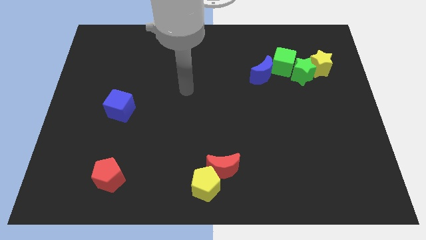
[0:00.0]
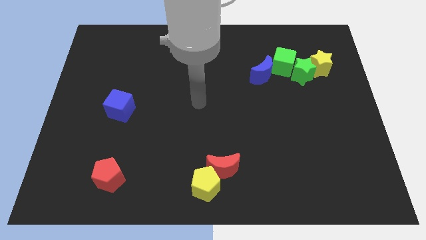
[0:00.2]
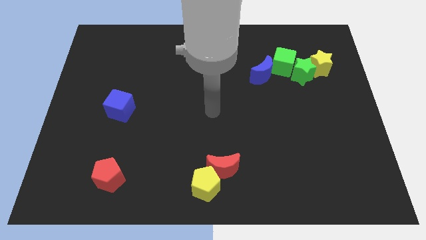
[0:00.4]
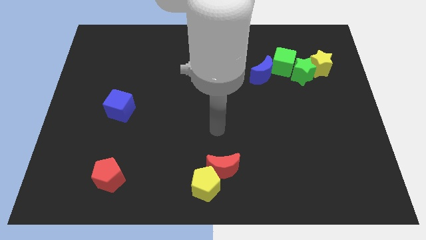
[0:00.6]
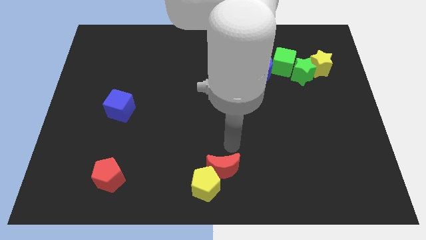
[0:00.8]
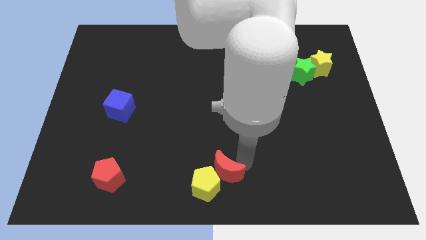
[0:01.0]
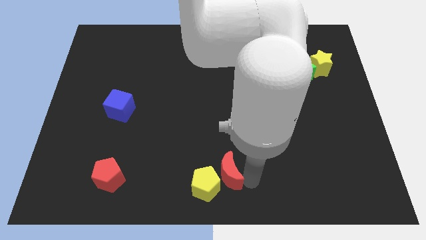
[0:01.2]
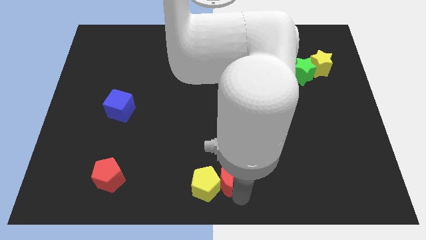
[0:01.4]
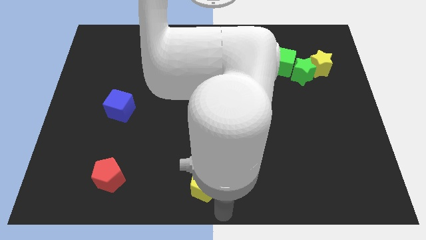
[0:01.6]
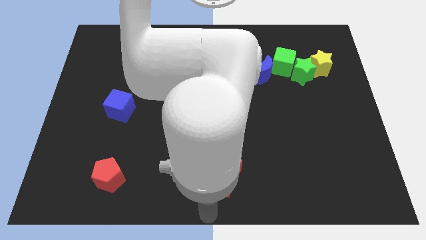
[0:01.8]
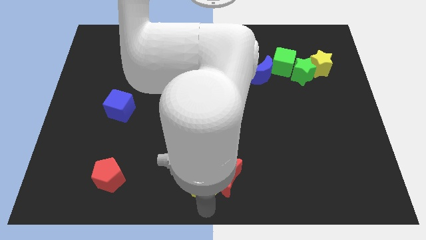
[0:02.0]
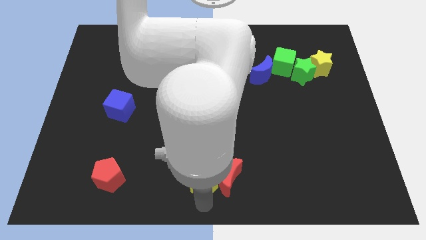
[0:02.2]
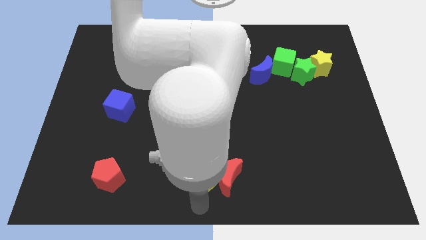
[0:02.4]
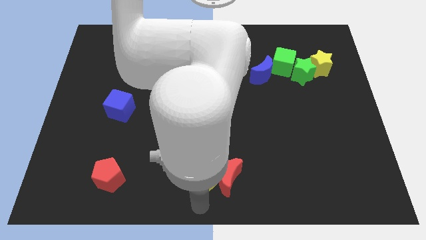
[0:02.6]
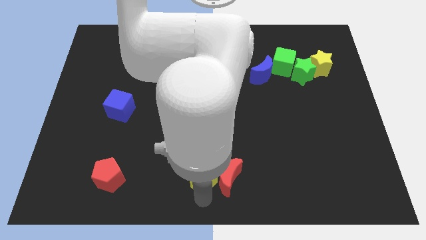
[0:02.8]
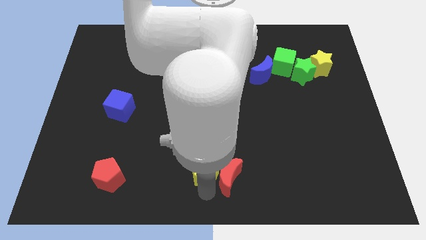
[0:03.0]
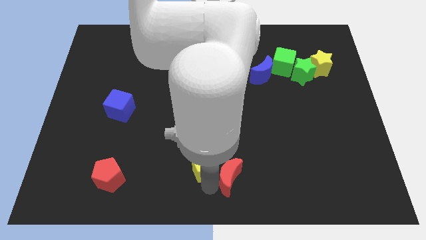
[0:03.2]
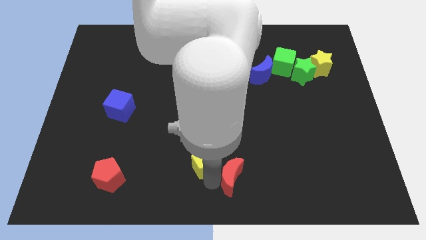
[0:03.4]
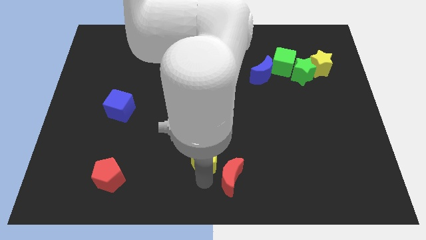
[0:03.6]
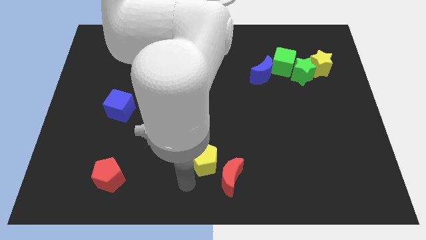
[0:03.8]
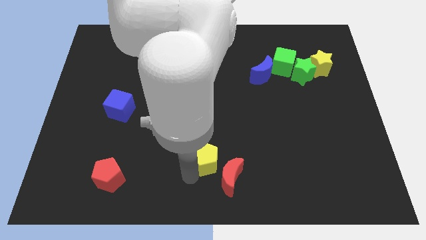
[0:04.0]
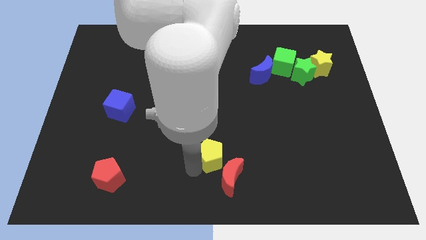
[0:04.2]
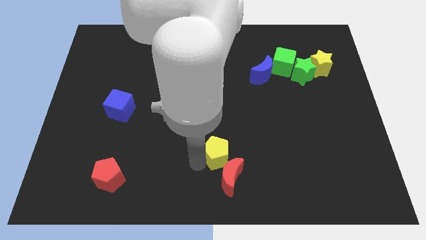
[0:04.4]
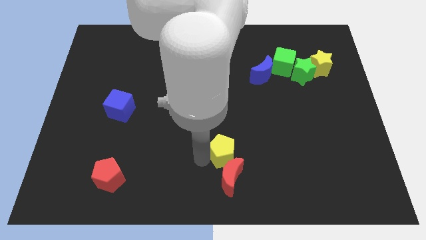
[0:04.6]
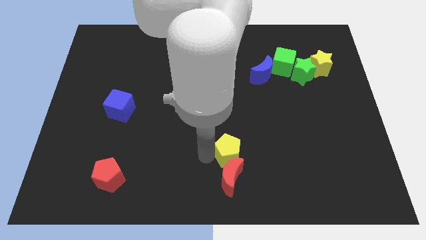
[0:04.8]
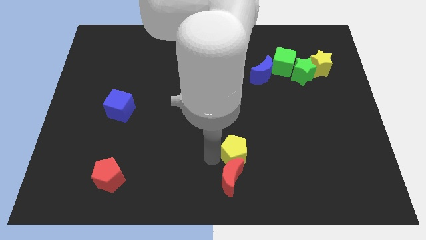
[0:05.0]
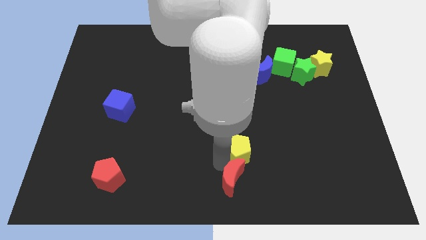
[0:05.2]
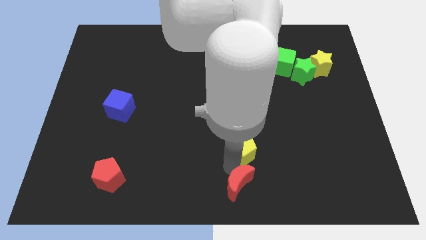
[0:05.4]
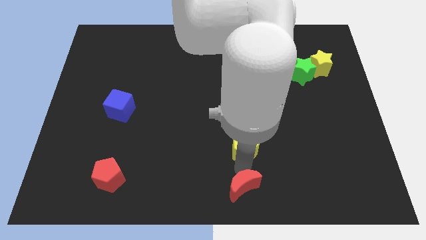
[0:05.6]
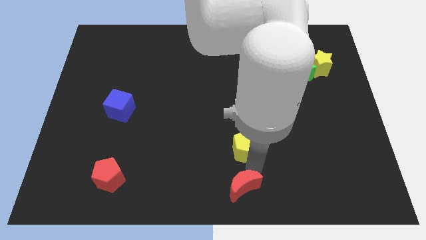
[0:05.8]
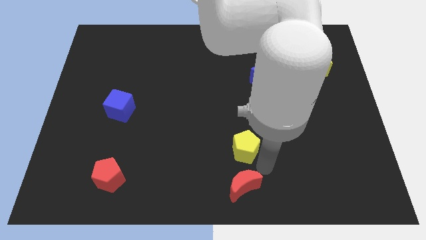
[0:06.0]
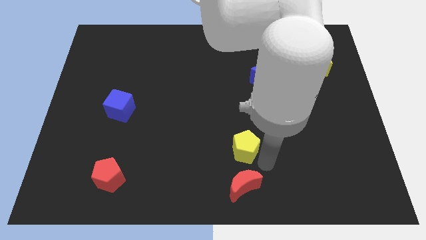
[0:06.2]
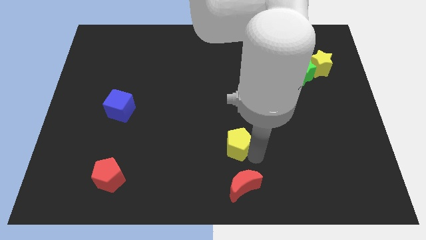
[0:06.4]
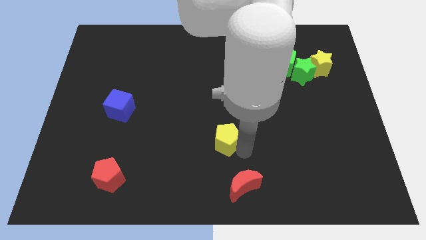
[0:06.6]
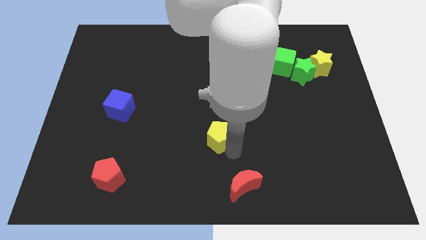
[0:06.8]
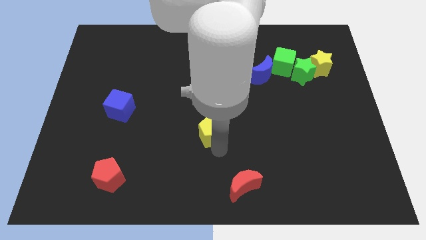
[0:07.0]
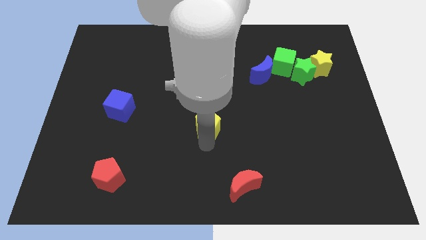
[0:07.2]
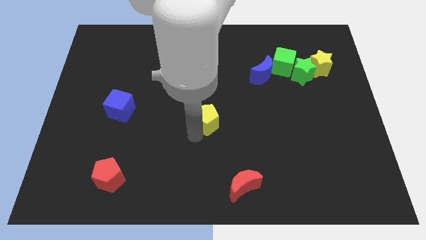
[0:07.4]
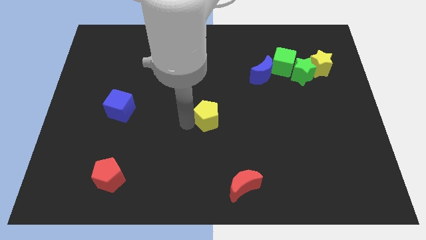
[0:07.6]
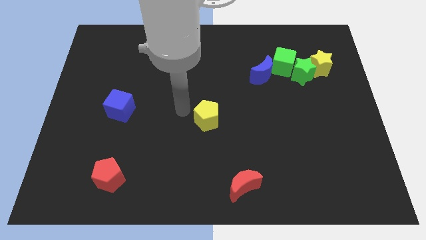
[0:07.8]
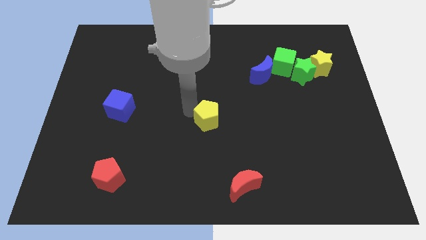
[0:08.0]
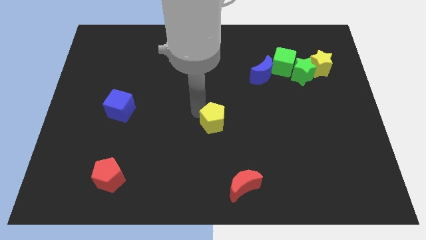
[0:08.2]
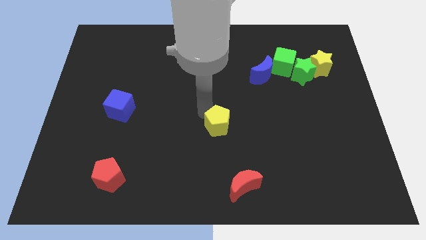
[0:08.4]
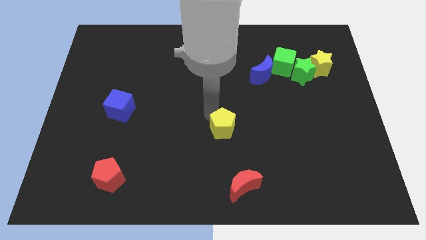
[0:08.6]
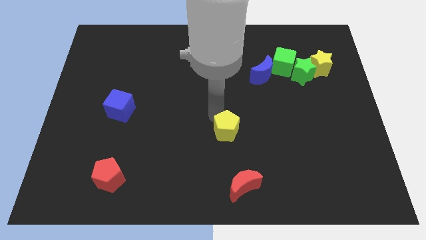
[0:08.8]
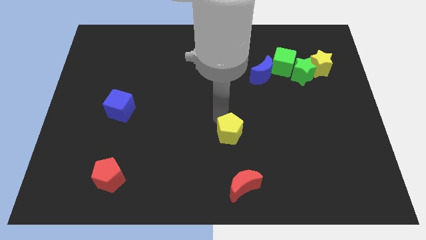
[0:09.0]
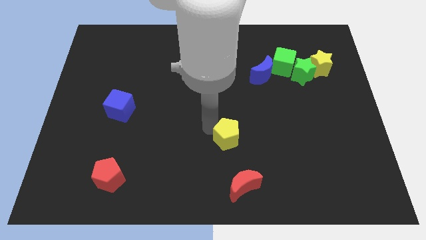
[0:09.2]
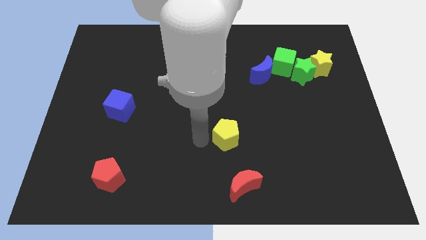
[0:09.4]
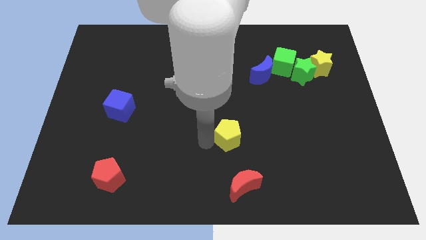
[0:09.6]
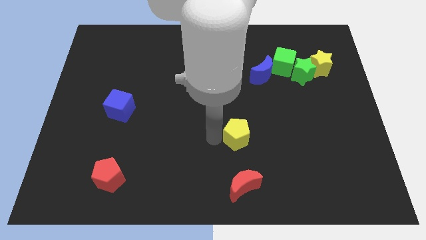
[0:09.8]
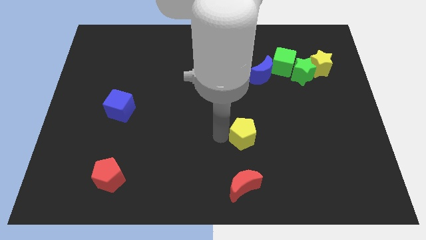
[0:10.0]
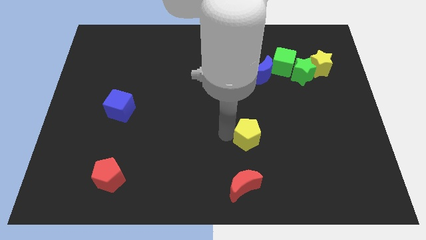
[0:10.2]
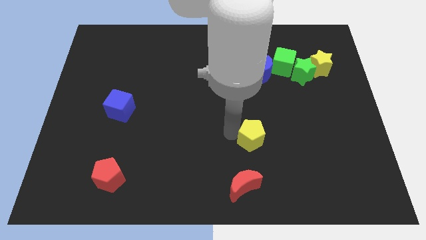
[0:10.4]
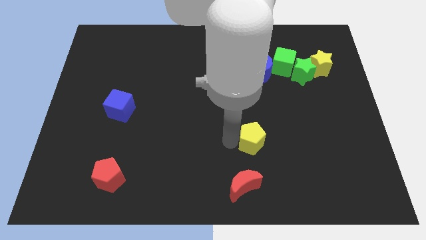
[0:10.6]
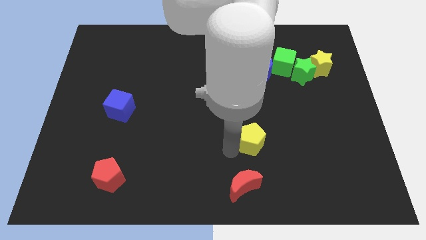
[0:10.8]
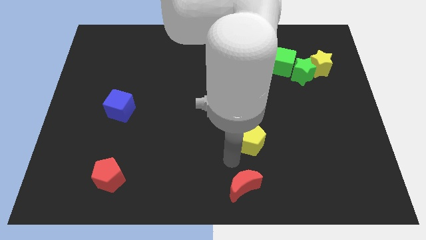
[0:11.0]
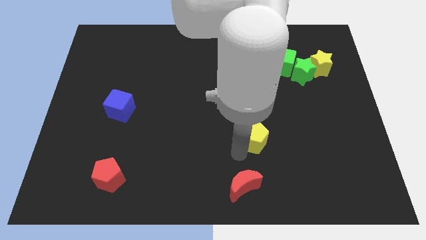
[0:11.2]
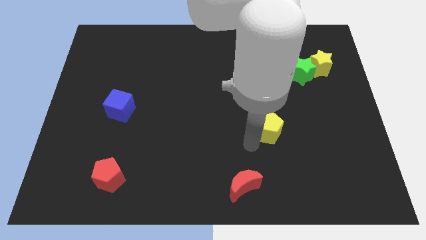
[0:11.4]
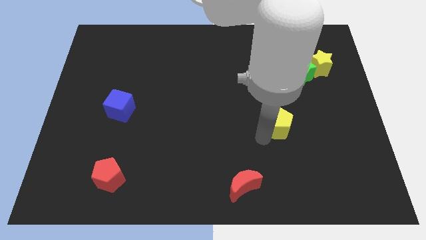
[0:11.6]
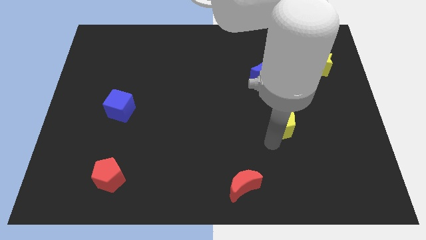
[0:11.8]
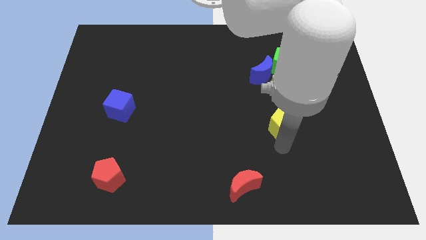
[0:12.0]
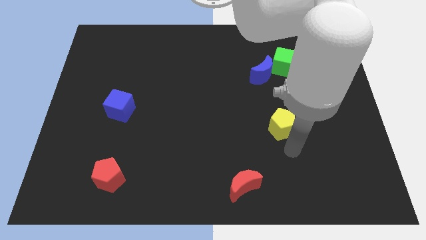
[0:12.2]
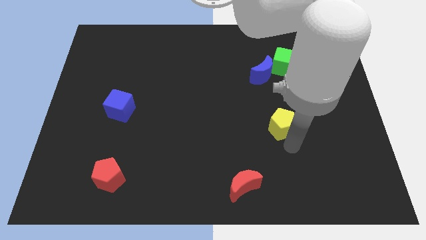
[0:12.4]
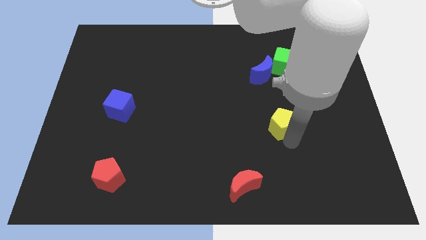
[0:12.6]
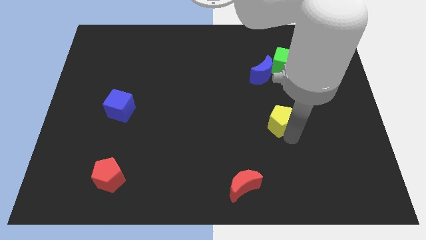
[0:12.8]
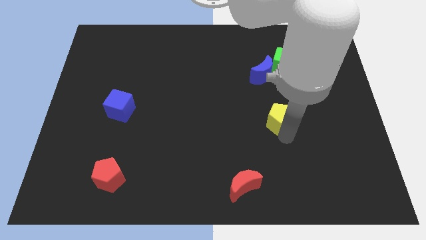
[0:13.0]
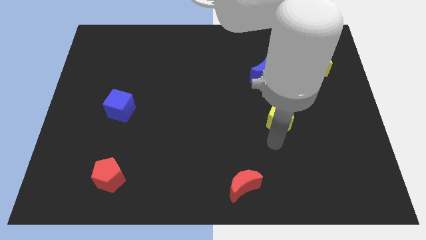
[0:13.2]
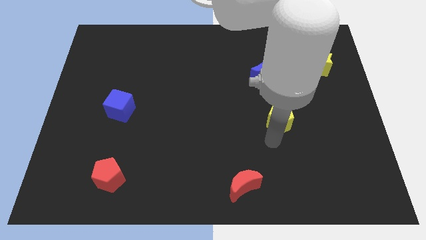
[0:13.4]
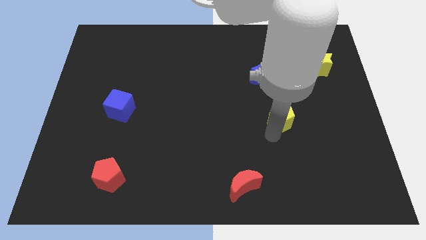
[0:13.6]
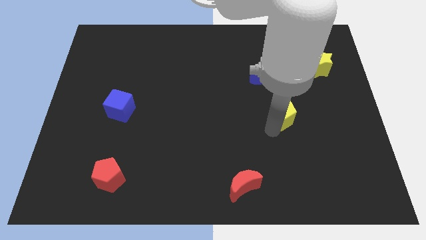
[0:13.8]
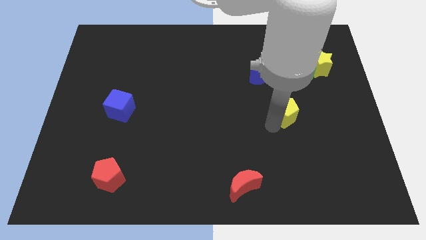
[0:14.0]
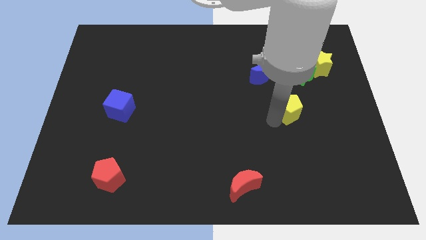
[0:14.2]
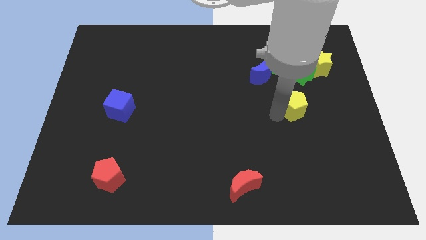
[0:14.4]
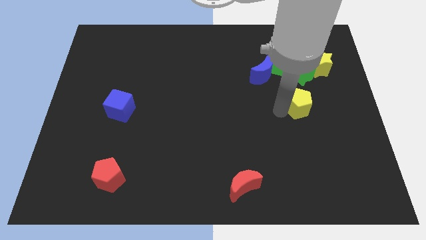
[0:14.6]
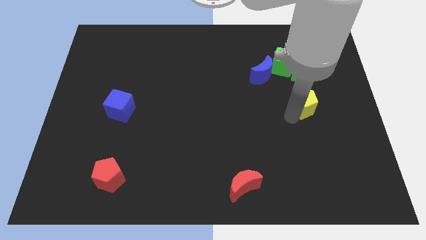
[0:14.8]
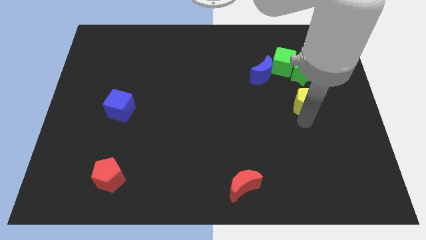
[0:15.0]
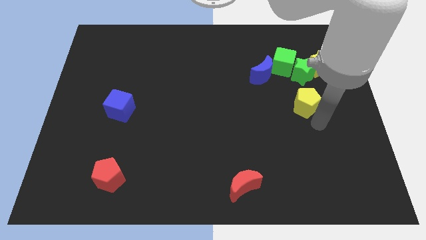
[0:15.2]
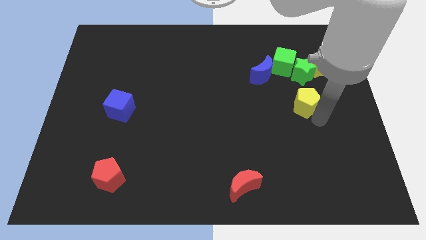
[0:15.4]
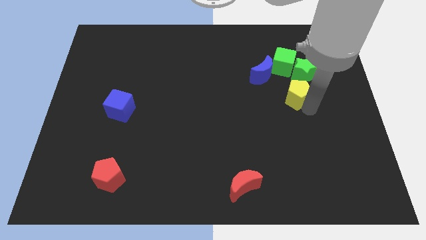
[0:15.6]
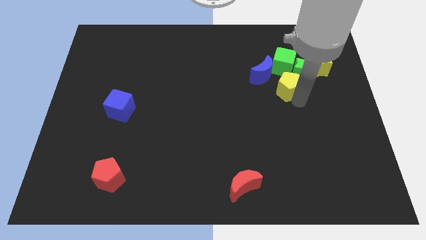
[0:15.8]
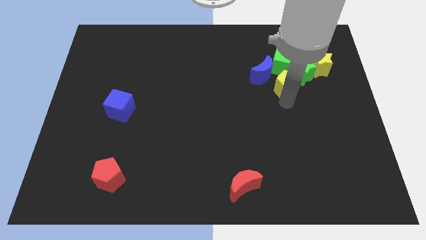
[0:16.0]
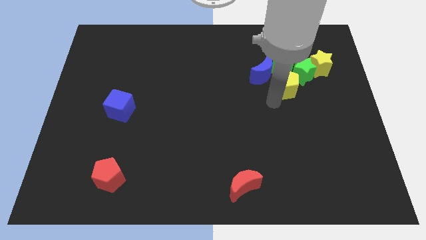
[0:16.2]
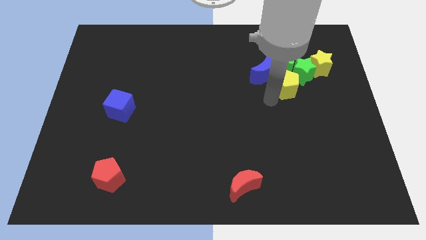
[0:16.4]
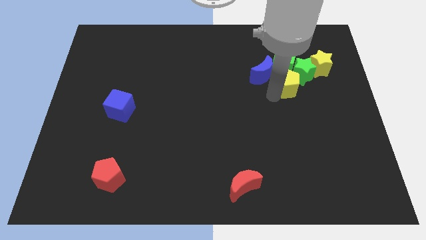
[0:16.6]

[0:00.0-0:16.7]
put the yellow pentagon close to the green star

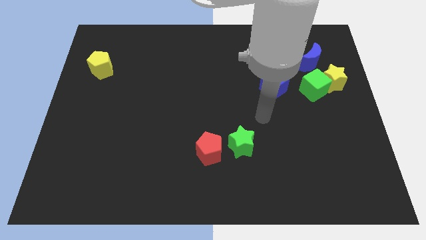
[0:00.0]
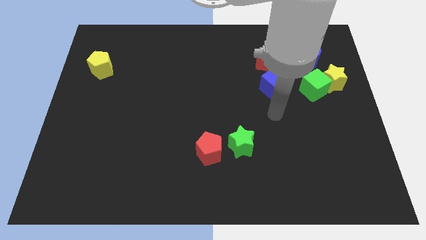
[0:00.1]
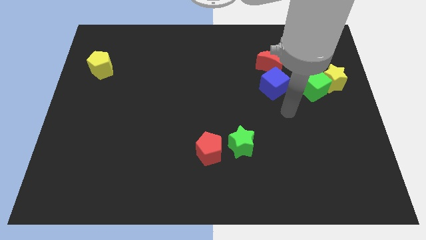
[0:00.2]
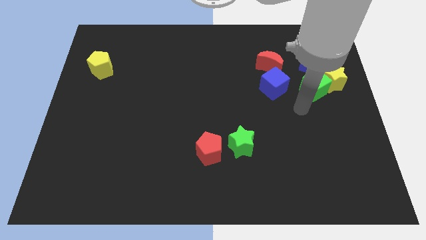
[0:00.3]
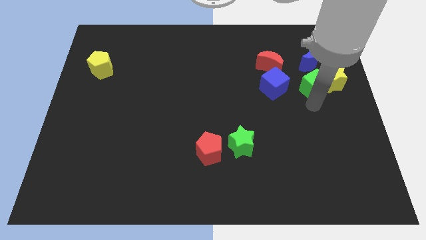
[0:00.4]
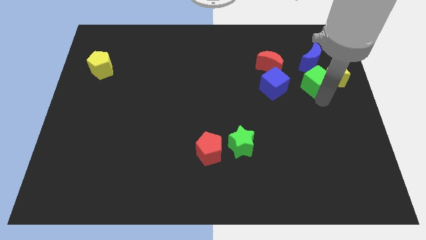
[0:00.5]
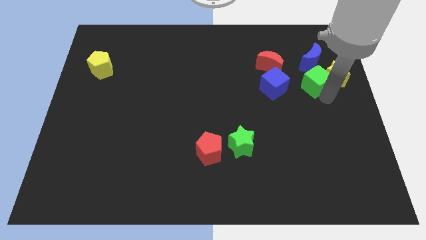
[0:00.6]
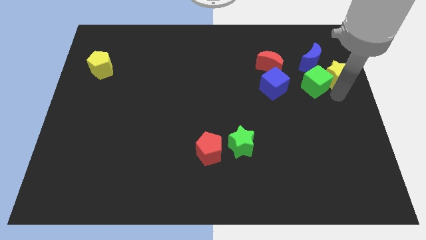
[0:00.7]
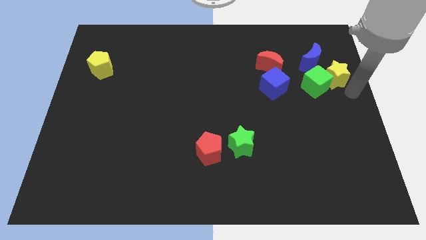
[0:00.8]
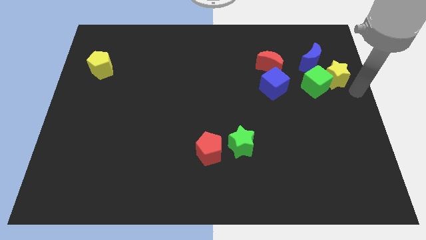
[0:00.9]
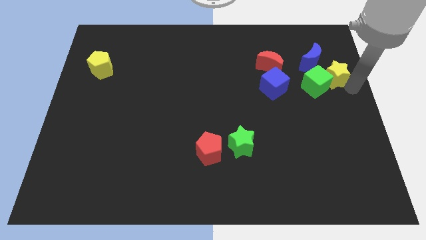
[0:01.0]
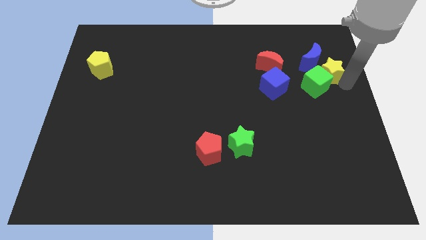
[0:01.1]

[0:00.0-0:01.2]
move the yellow star towards the blue moon
